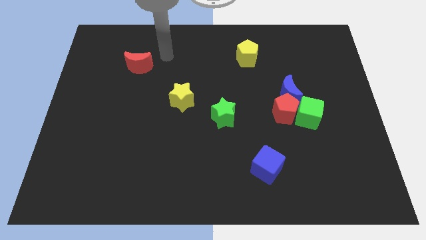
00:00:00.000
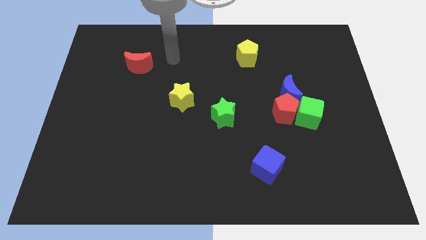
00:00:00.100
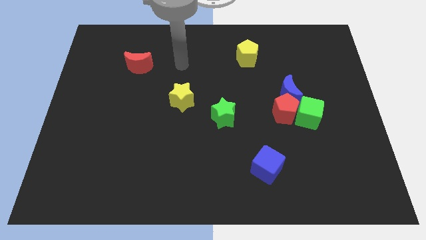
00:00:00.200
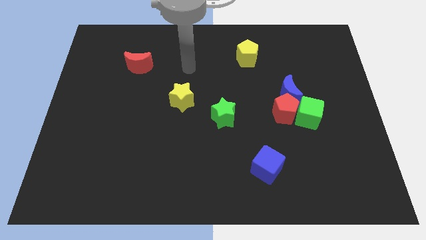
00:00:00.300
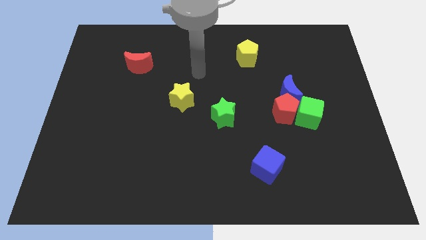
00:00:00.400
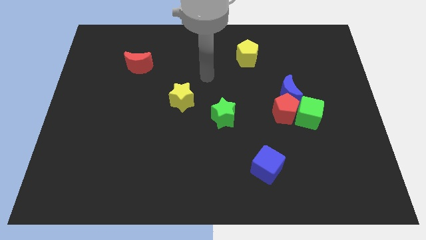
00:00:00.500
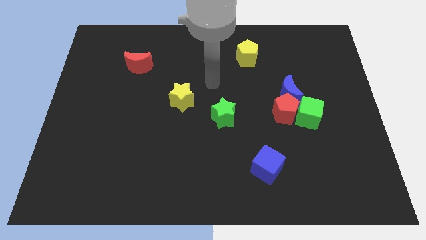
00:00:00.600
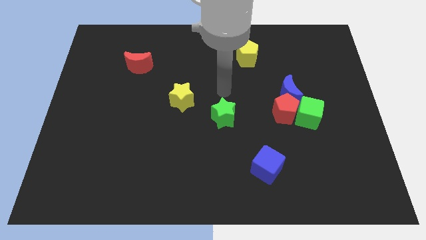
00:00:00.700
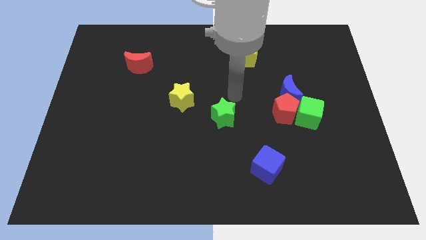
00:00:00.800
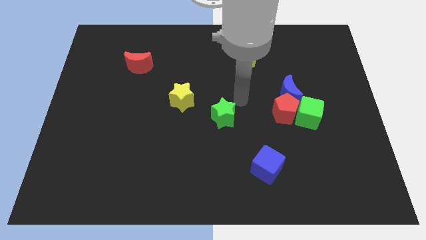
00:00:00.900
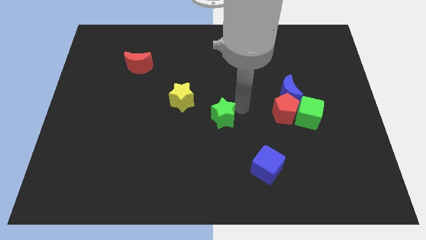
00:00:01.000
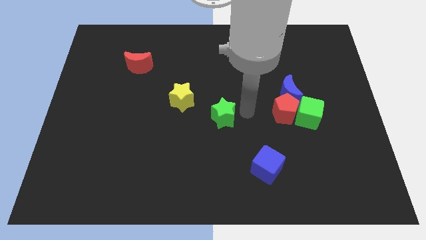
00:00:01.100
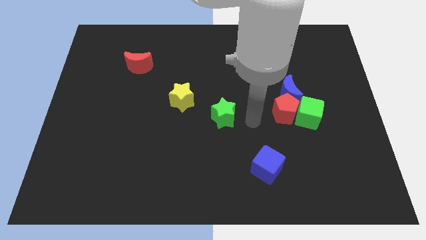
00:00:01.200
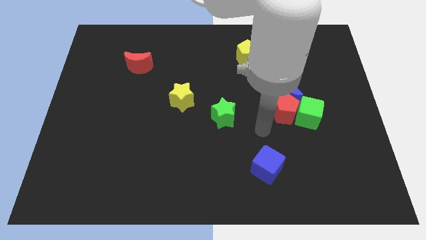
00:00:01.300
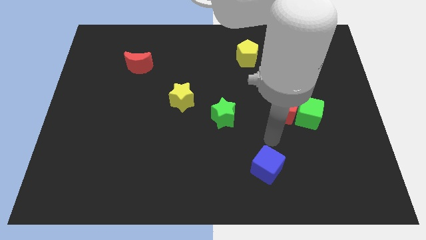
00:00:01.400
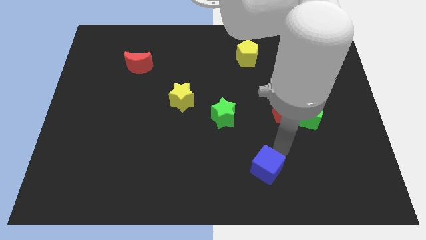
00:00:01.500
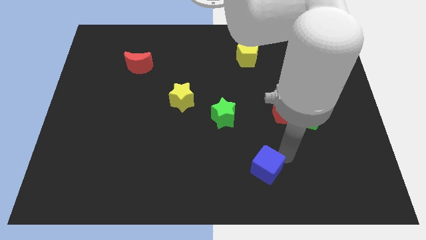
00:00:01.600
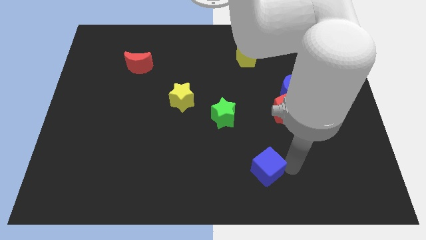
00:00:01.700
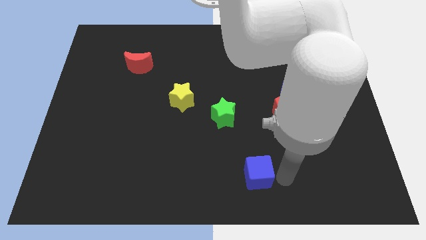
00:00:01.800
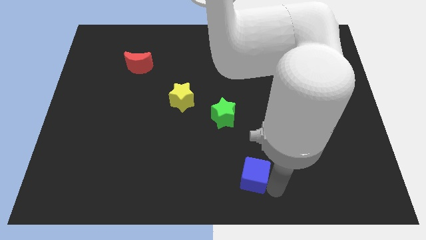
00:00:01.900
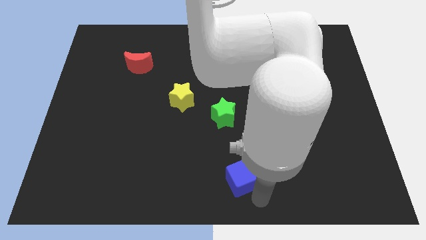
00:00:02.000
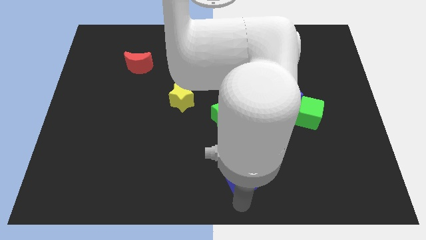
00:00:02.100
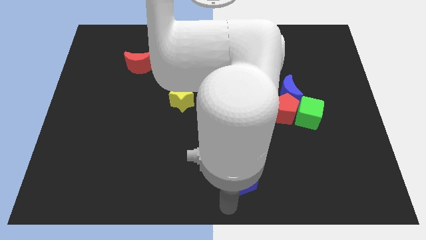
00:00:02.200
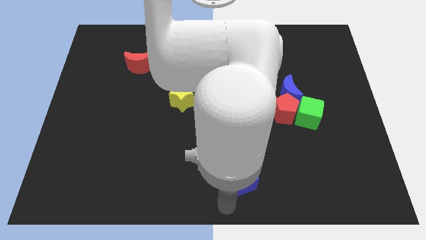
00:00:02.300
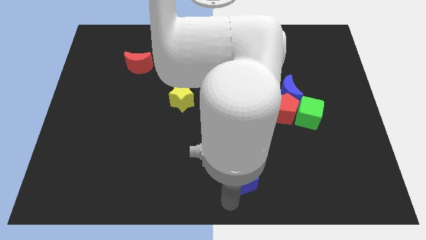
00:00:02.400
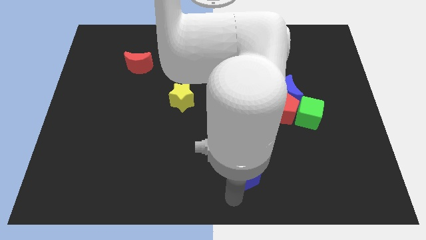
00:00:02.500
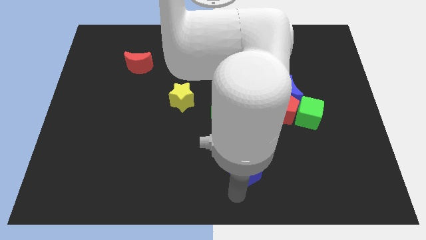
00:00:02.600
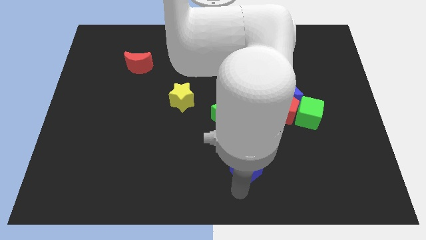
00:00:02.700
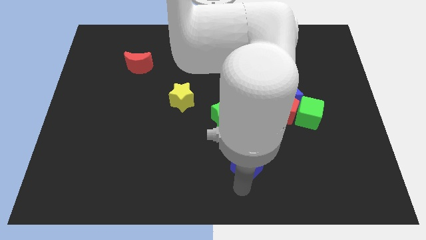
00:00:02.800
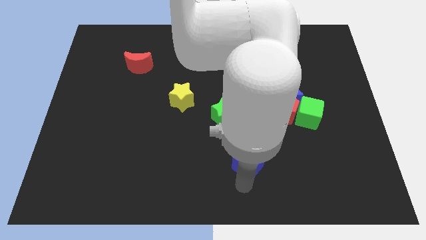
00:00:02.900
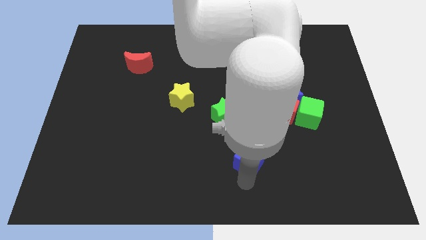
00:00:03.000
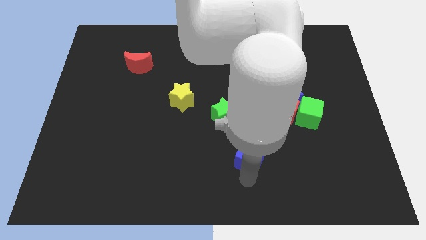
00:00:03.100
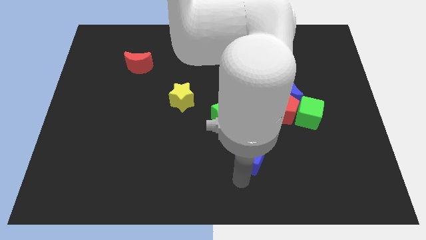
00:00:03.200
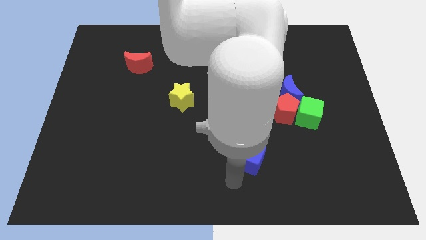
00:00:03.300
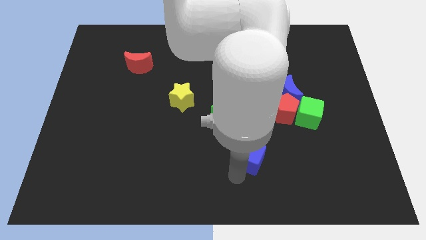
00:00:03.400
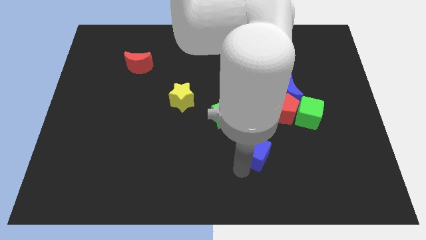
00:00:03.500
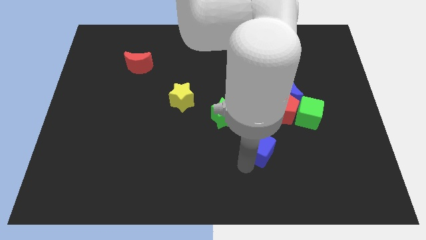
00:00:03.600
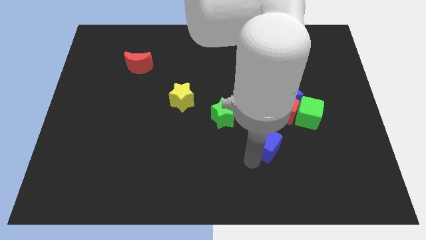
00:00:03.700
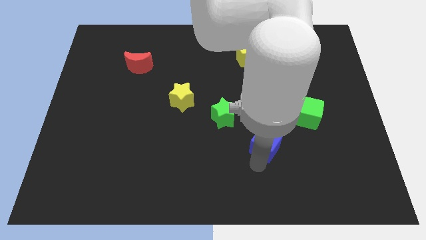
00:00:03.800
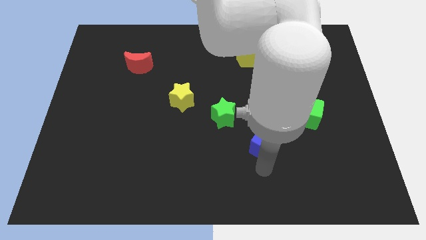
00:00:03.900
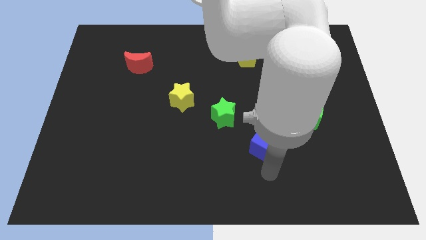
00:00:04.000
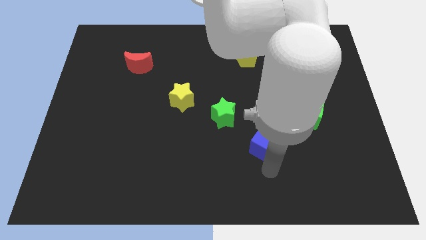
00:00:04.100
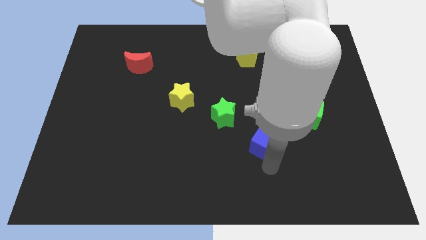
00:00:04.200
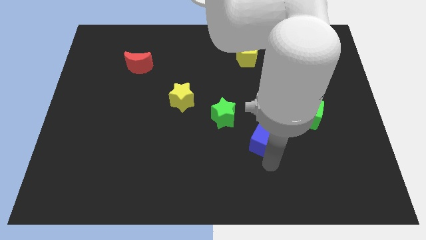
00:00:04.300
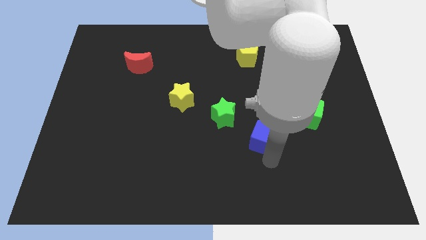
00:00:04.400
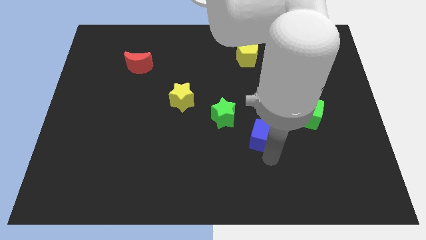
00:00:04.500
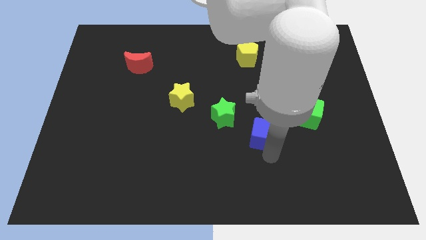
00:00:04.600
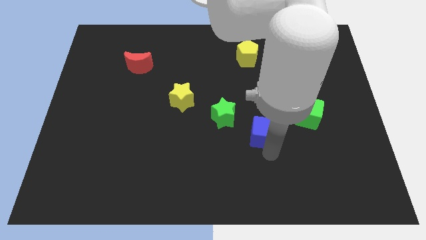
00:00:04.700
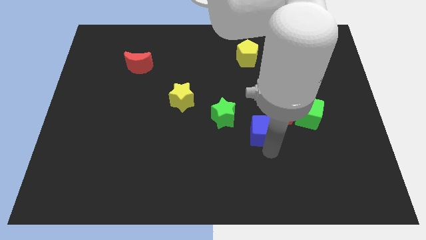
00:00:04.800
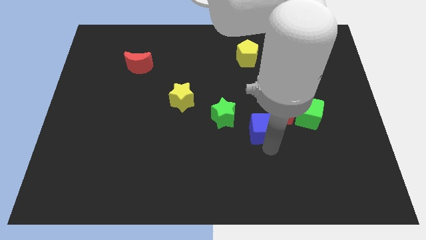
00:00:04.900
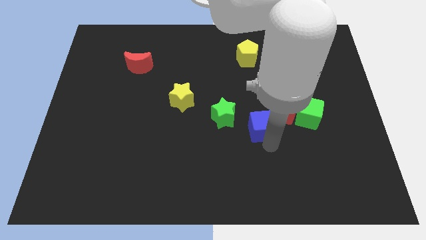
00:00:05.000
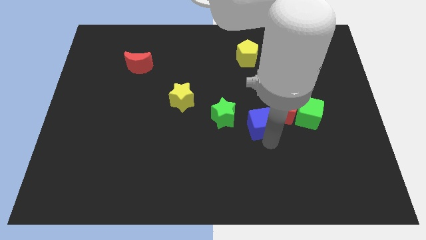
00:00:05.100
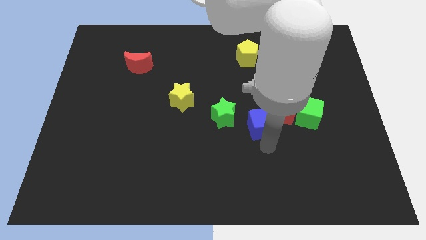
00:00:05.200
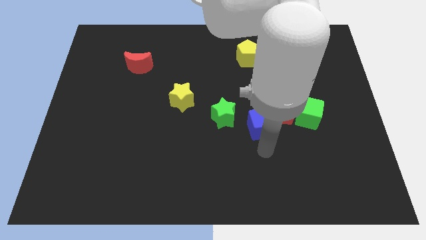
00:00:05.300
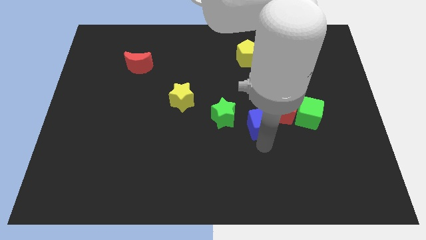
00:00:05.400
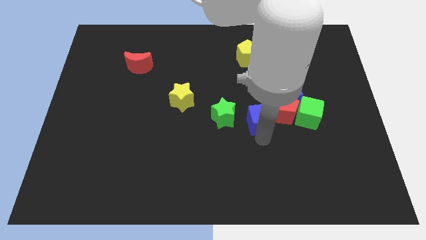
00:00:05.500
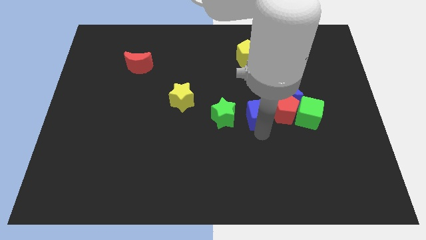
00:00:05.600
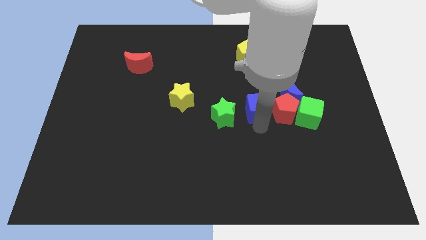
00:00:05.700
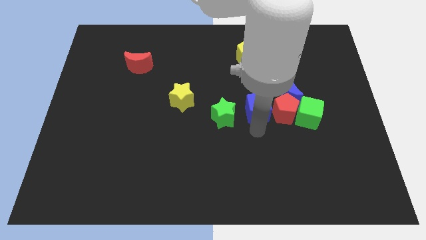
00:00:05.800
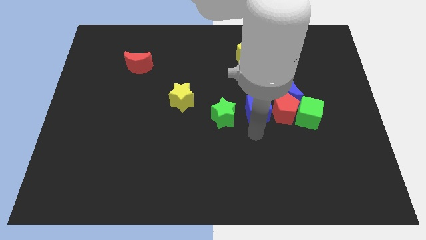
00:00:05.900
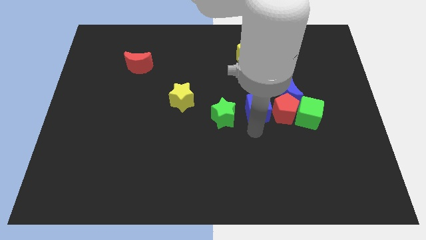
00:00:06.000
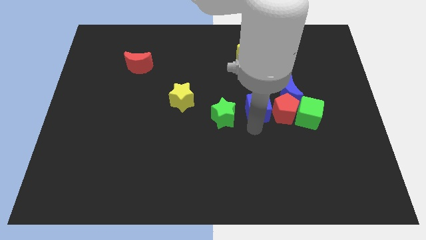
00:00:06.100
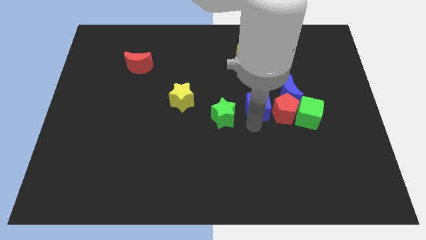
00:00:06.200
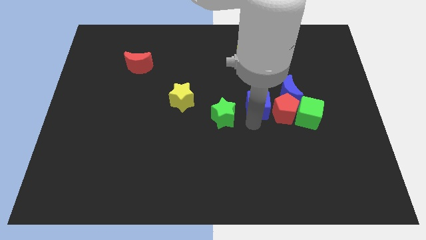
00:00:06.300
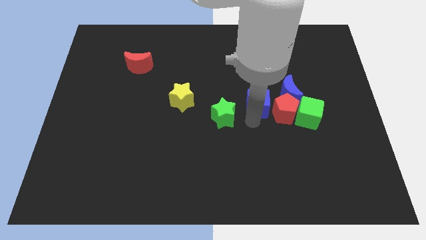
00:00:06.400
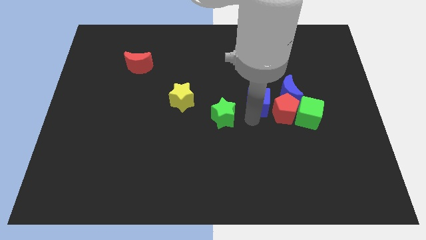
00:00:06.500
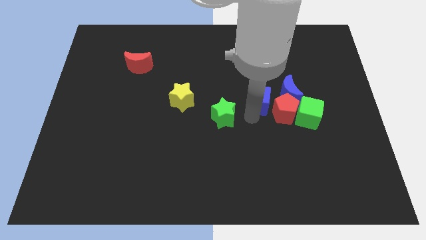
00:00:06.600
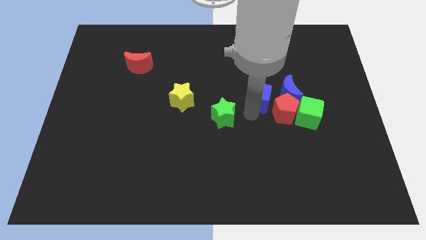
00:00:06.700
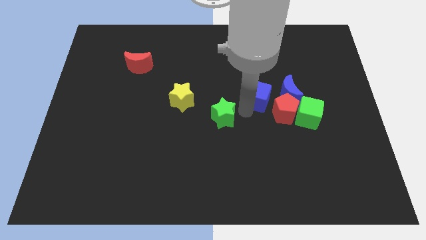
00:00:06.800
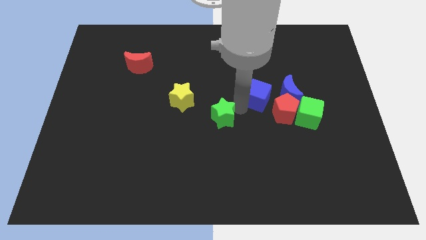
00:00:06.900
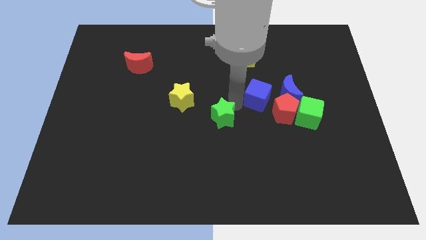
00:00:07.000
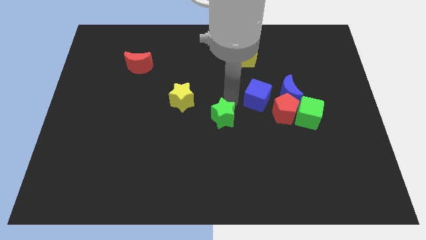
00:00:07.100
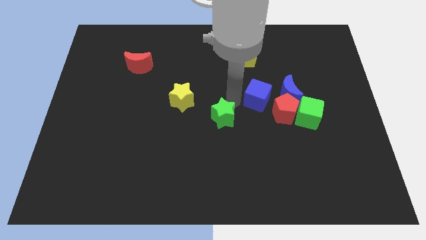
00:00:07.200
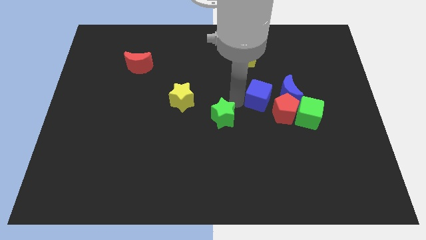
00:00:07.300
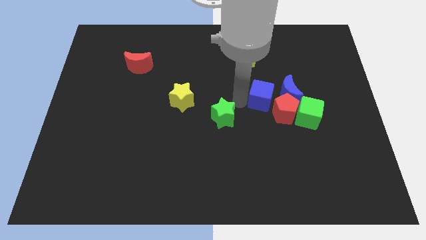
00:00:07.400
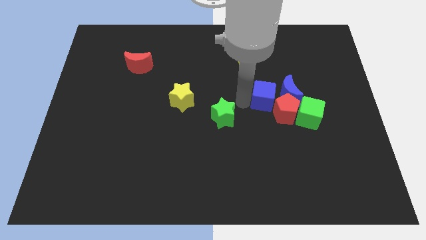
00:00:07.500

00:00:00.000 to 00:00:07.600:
put the blue cube close to the blue moon
